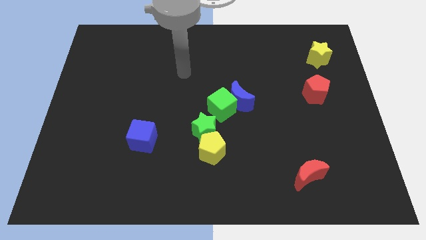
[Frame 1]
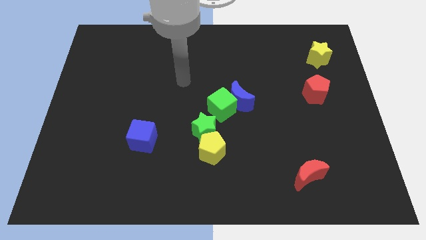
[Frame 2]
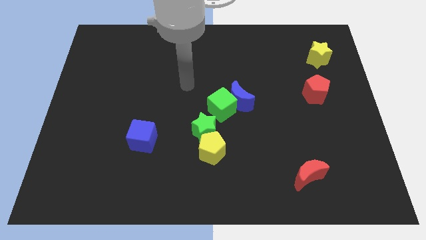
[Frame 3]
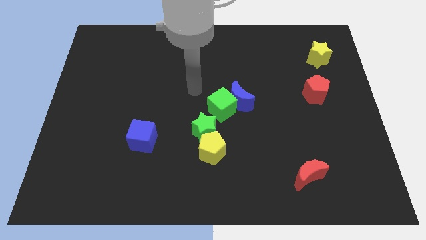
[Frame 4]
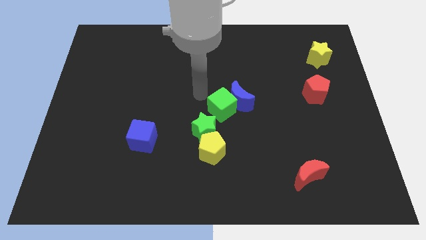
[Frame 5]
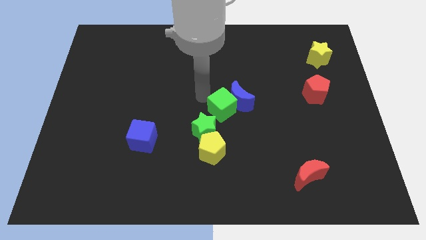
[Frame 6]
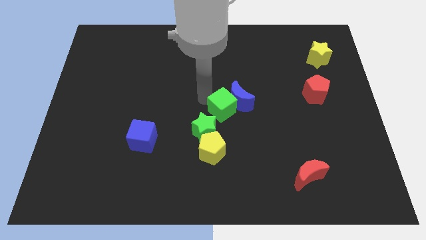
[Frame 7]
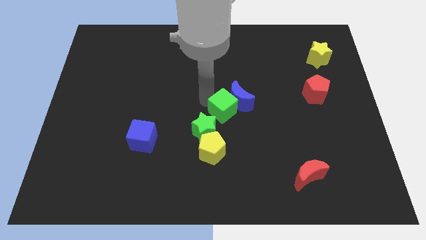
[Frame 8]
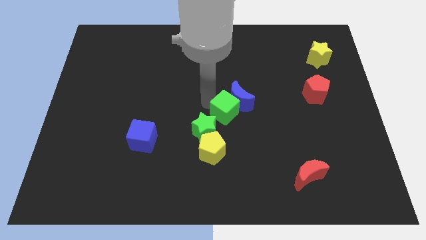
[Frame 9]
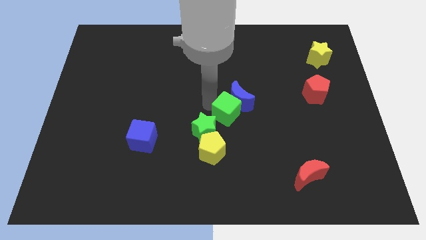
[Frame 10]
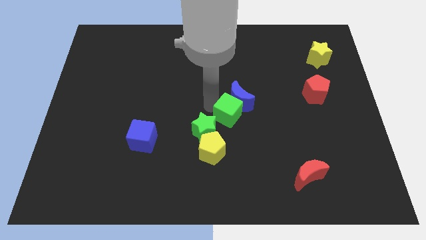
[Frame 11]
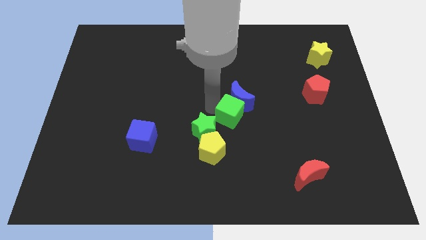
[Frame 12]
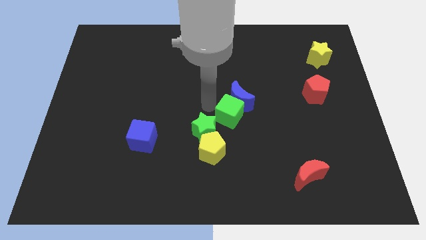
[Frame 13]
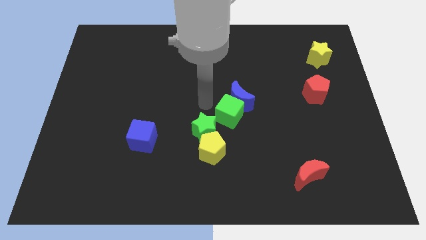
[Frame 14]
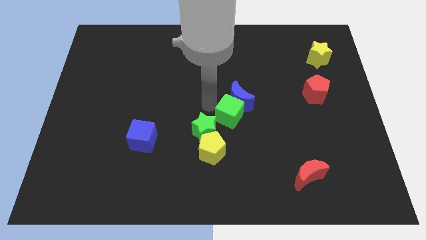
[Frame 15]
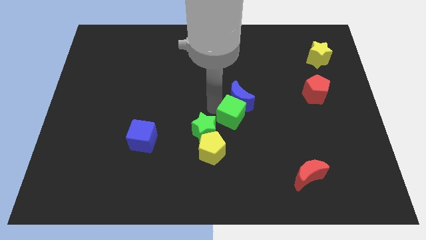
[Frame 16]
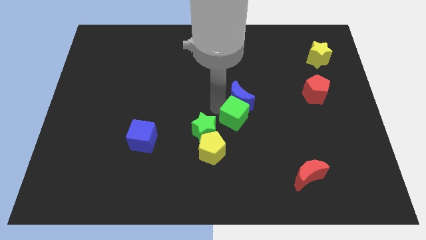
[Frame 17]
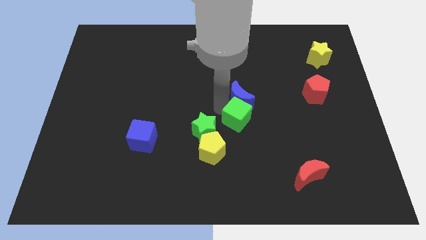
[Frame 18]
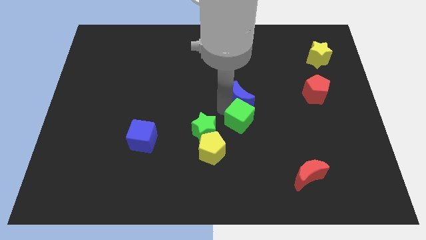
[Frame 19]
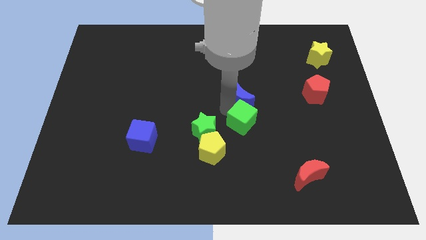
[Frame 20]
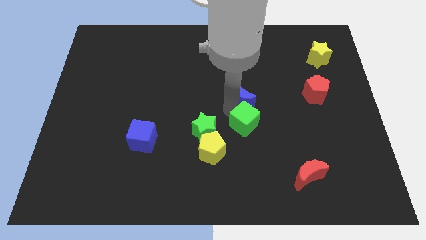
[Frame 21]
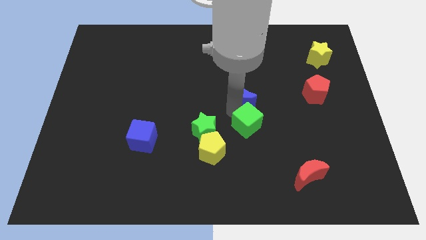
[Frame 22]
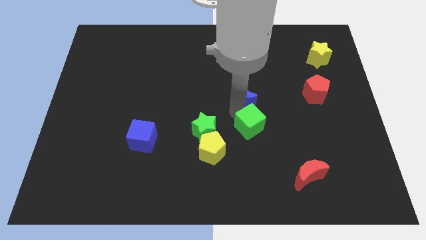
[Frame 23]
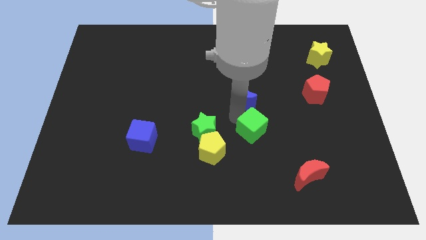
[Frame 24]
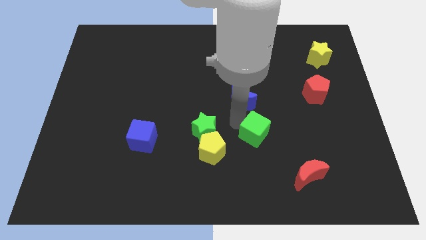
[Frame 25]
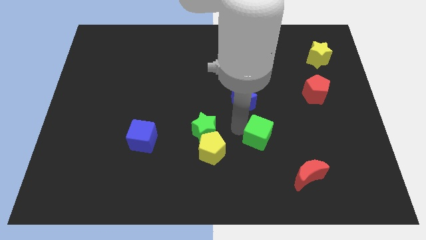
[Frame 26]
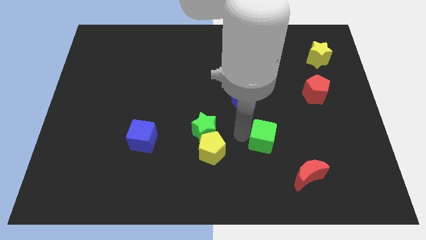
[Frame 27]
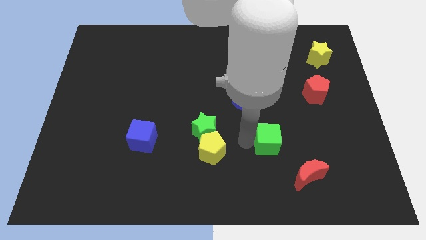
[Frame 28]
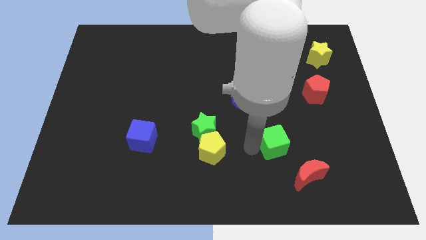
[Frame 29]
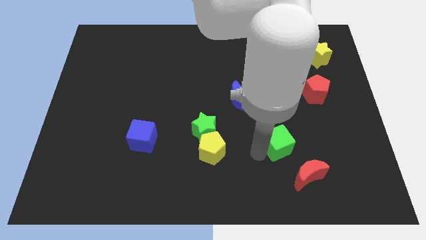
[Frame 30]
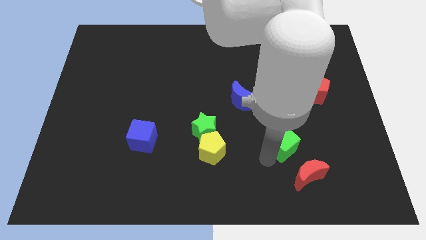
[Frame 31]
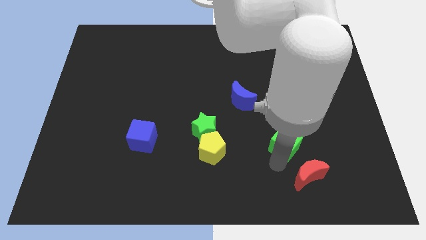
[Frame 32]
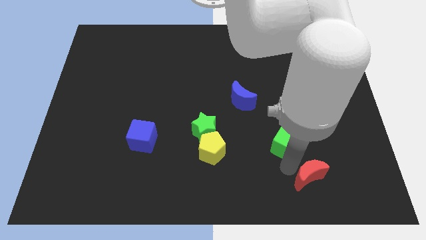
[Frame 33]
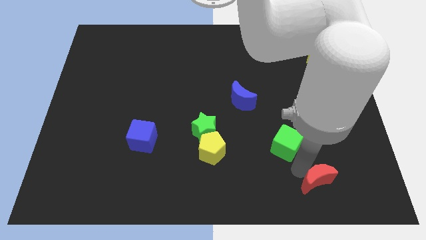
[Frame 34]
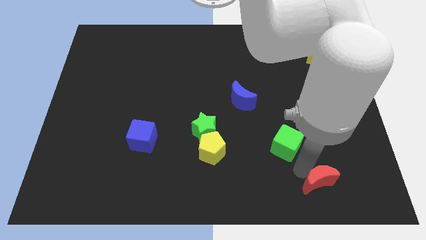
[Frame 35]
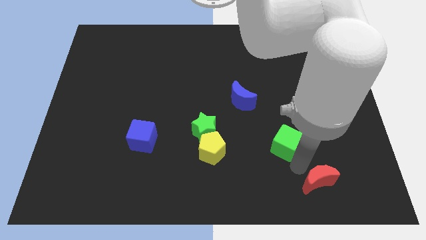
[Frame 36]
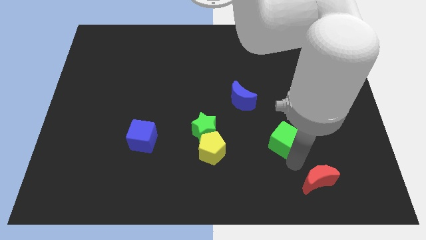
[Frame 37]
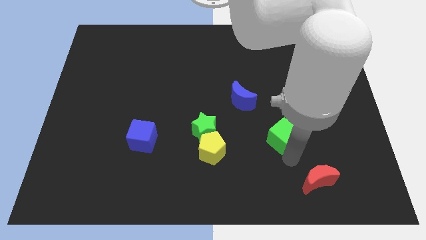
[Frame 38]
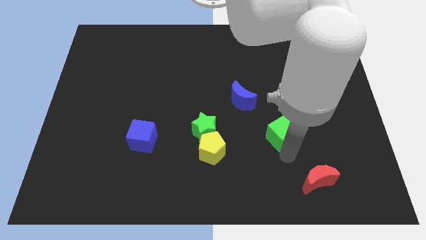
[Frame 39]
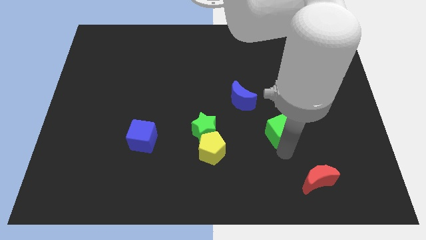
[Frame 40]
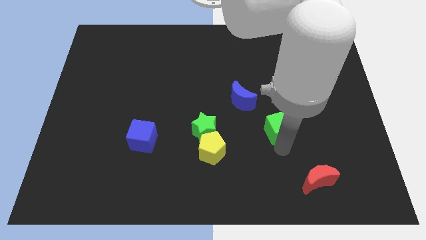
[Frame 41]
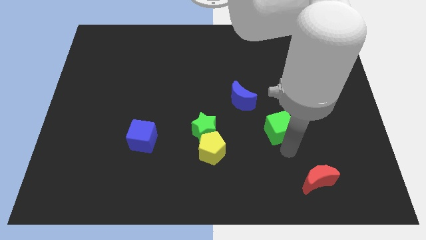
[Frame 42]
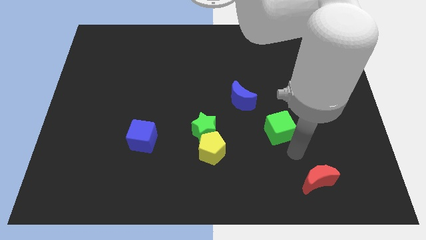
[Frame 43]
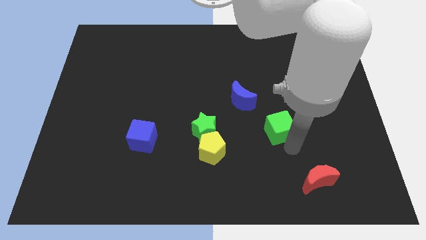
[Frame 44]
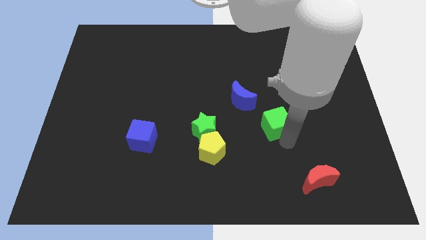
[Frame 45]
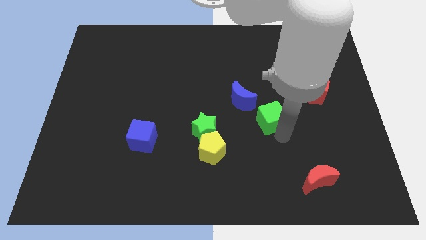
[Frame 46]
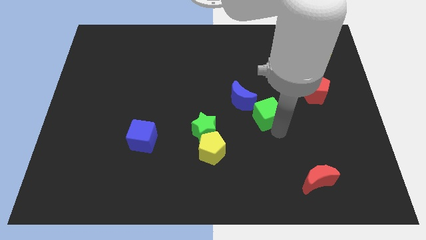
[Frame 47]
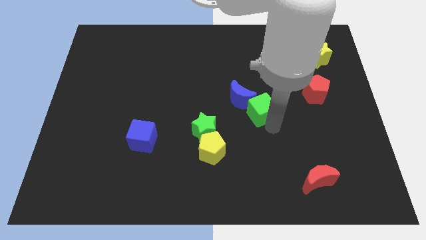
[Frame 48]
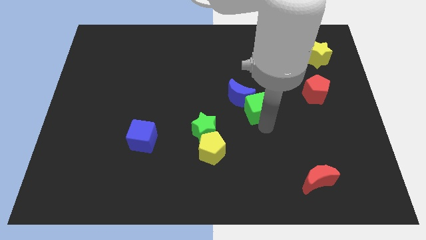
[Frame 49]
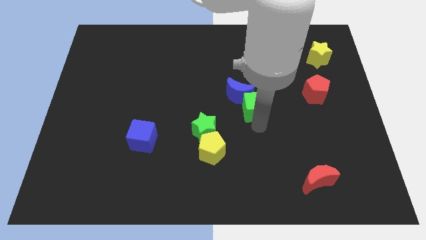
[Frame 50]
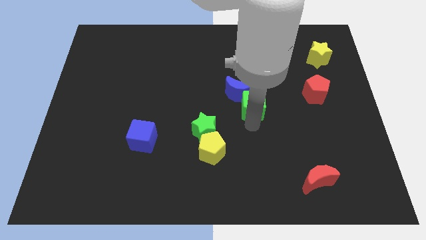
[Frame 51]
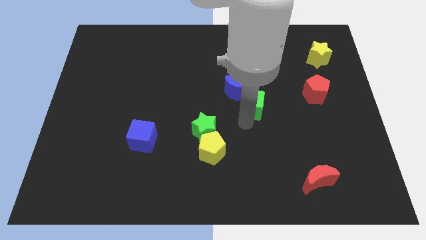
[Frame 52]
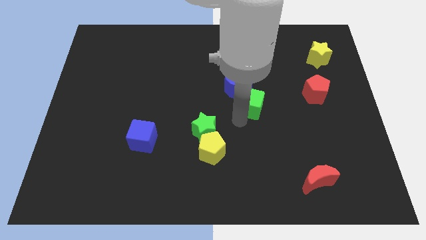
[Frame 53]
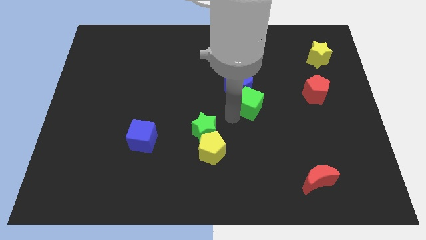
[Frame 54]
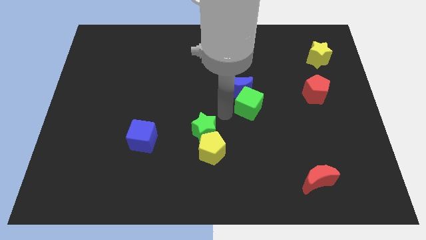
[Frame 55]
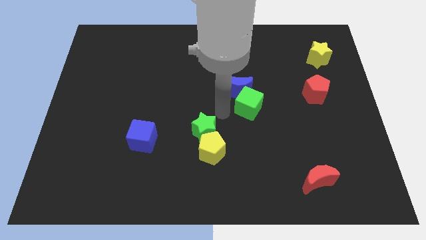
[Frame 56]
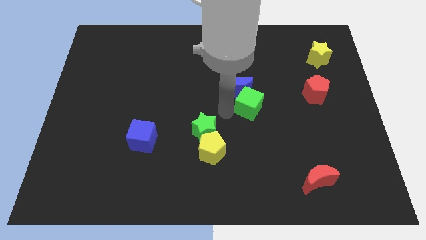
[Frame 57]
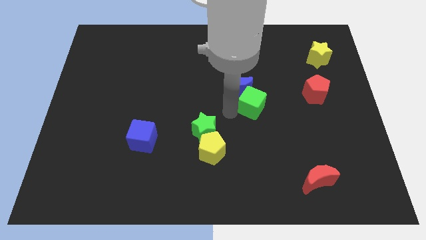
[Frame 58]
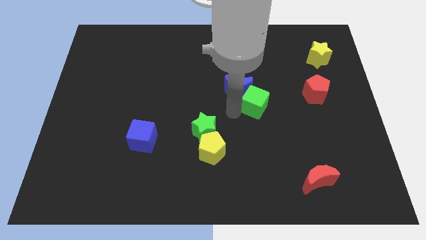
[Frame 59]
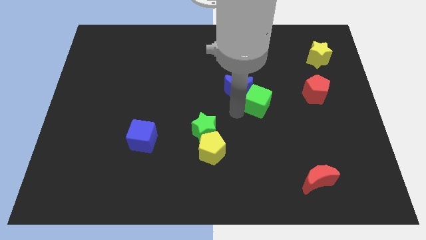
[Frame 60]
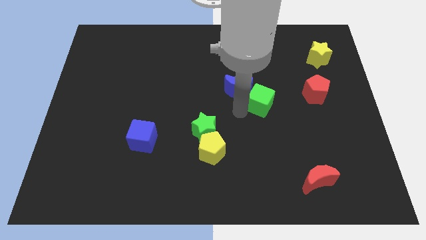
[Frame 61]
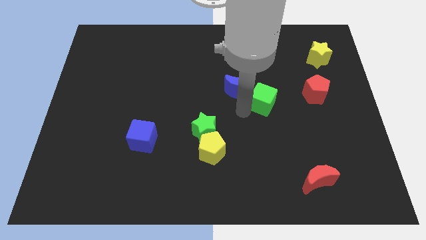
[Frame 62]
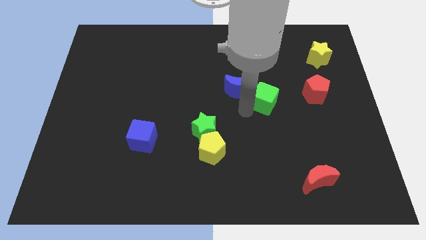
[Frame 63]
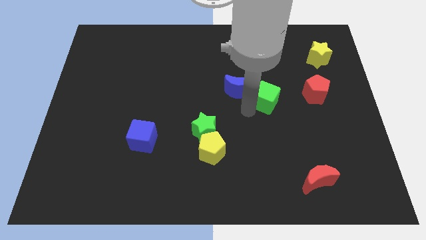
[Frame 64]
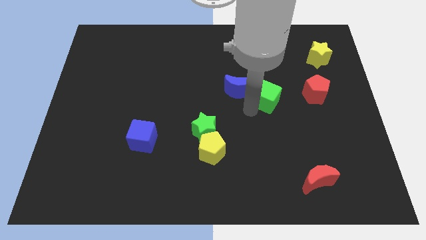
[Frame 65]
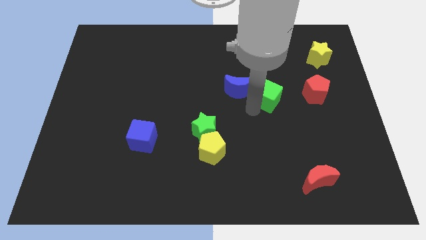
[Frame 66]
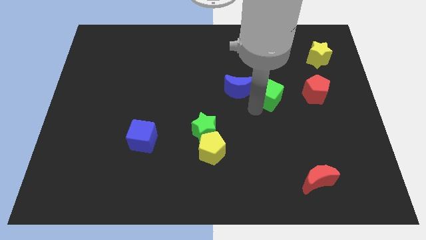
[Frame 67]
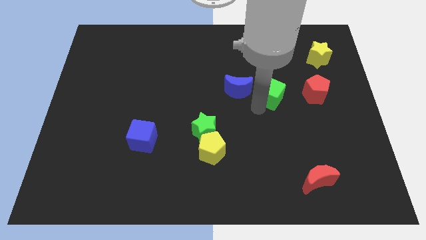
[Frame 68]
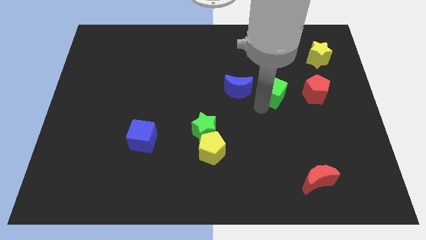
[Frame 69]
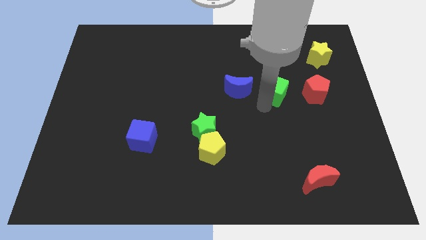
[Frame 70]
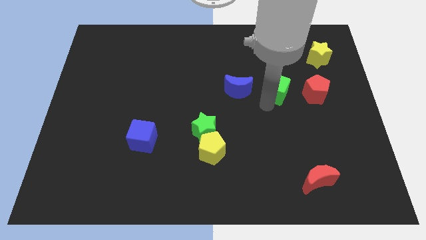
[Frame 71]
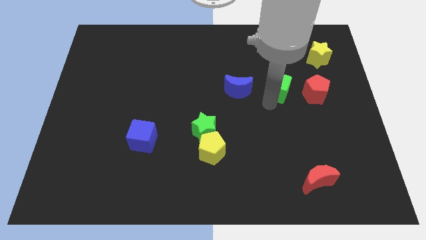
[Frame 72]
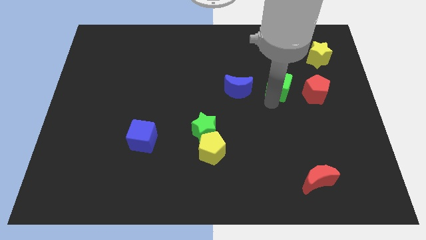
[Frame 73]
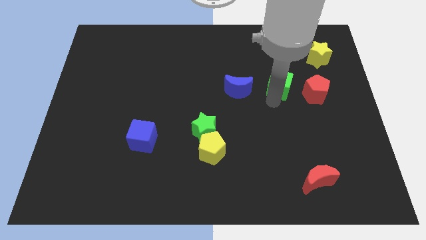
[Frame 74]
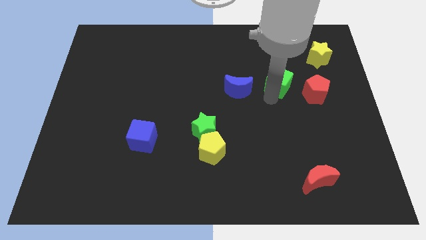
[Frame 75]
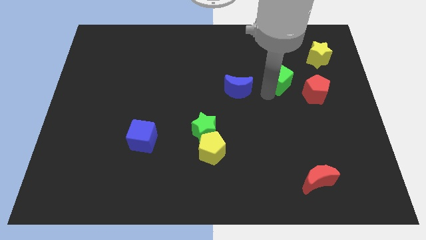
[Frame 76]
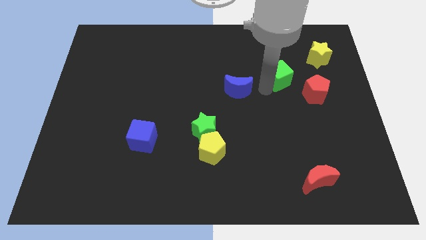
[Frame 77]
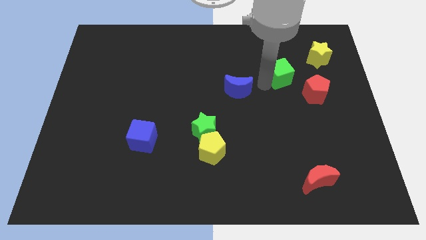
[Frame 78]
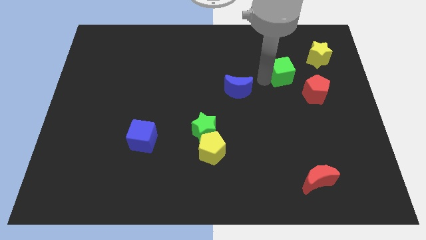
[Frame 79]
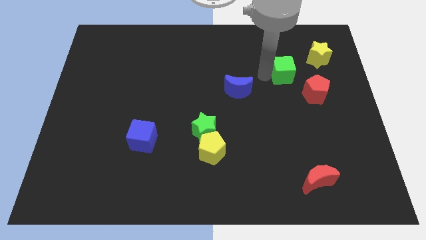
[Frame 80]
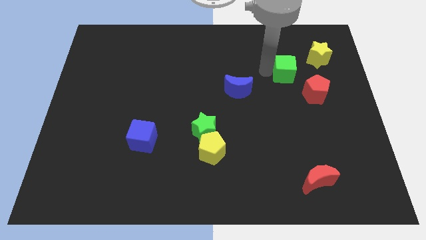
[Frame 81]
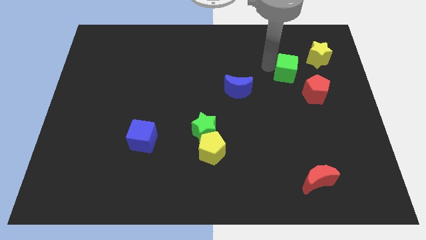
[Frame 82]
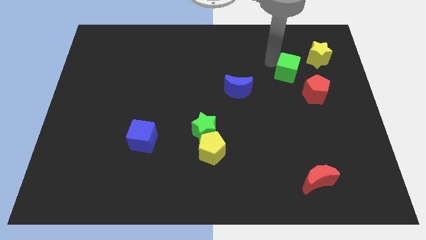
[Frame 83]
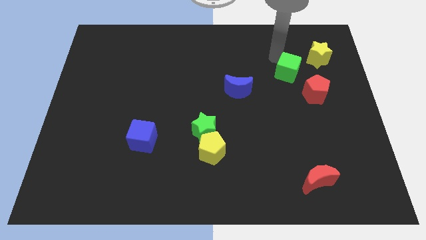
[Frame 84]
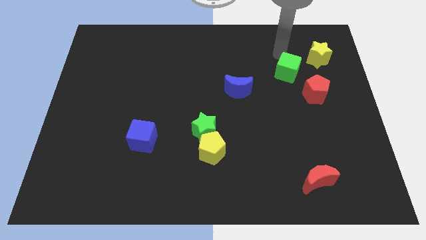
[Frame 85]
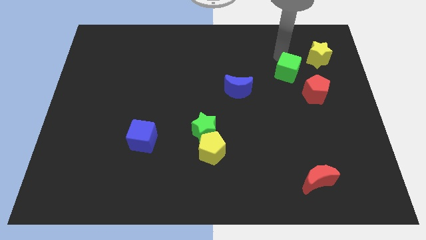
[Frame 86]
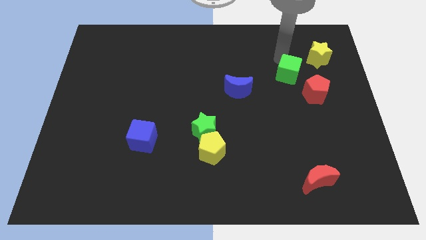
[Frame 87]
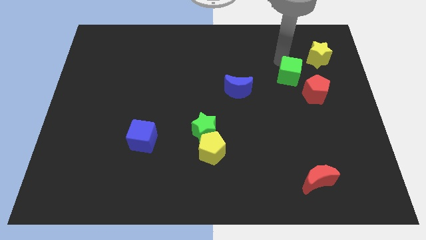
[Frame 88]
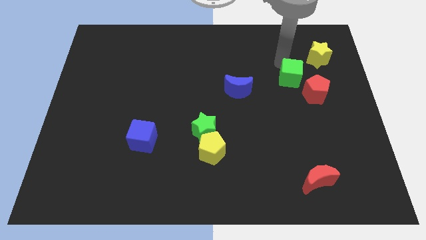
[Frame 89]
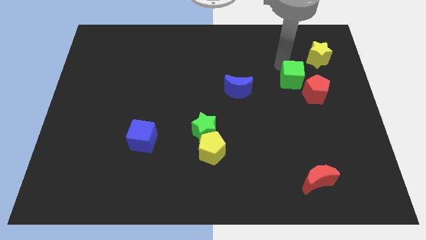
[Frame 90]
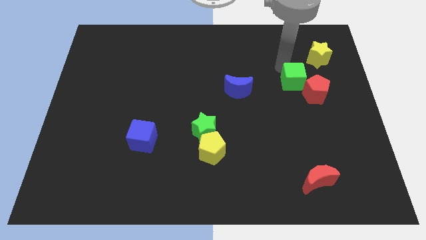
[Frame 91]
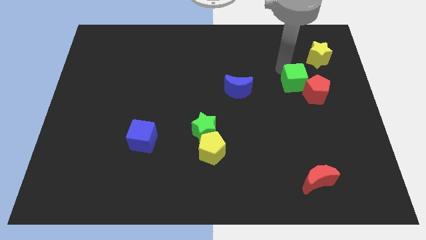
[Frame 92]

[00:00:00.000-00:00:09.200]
push the green cube towards the red pentagon
